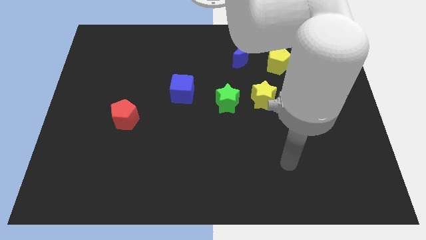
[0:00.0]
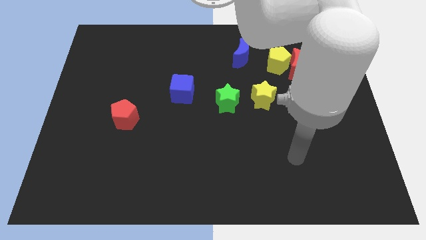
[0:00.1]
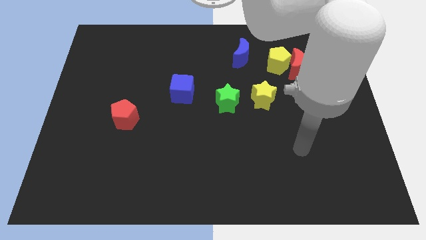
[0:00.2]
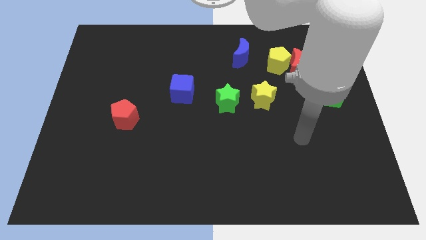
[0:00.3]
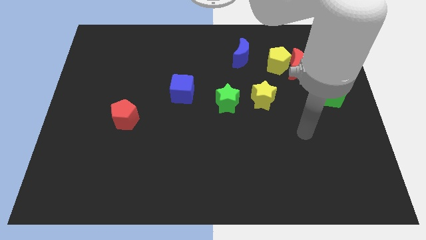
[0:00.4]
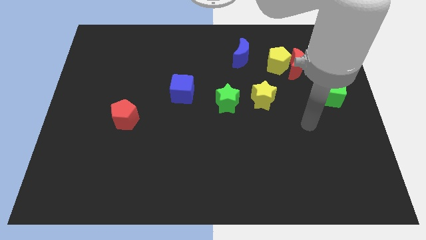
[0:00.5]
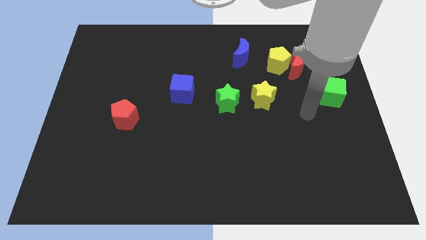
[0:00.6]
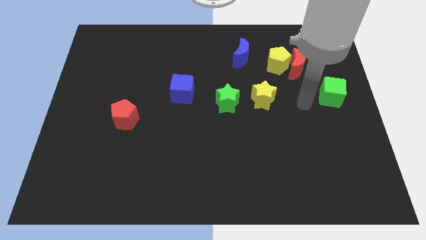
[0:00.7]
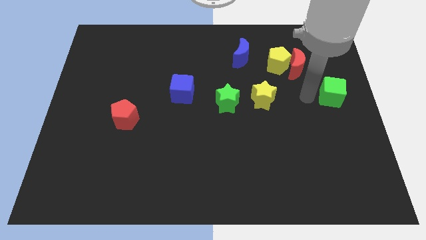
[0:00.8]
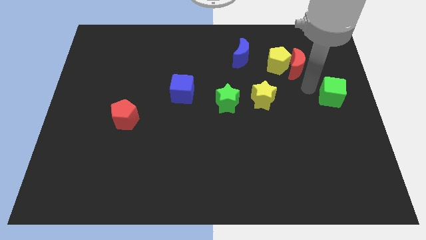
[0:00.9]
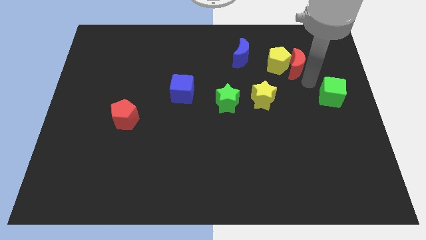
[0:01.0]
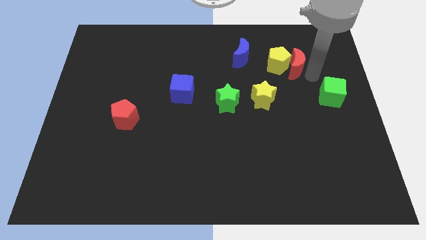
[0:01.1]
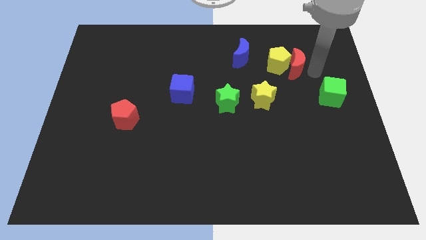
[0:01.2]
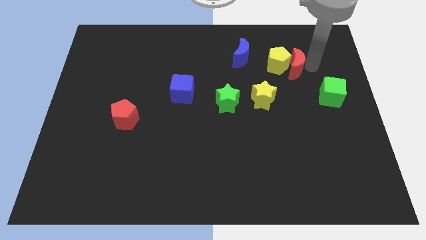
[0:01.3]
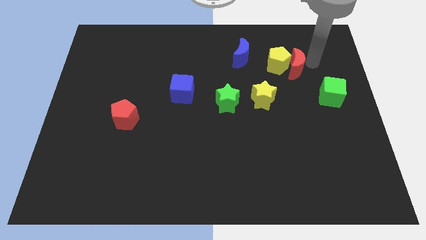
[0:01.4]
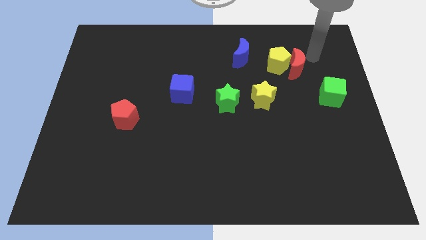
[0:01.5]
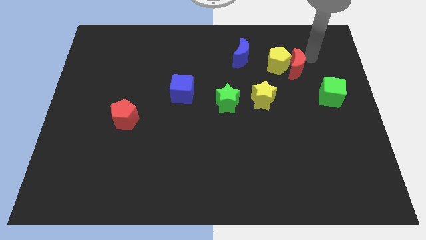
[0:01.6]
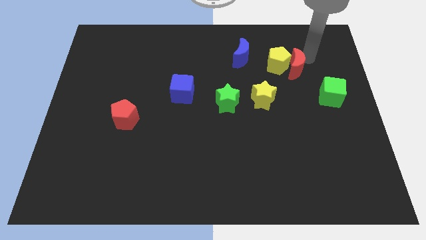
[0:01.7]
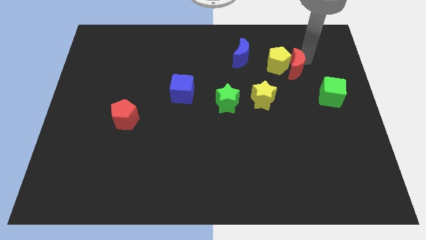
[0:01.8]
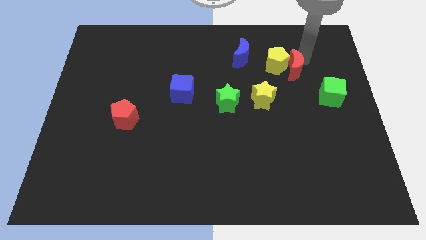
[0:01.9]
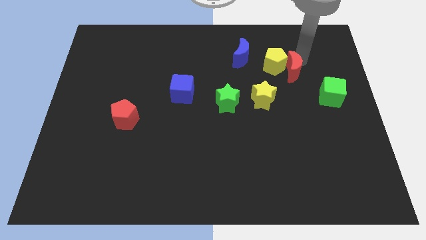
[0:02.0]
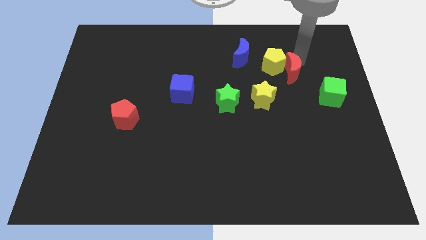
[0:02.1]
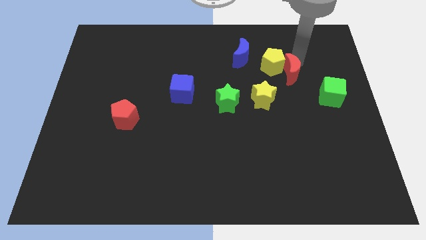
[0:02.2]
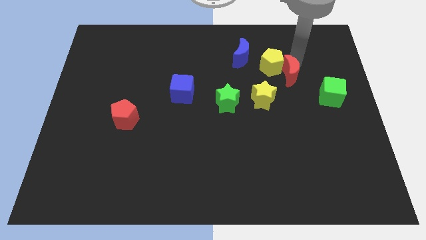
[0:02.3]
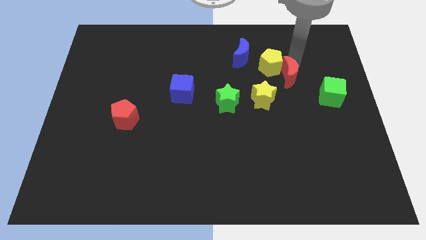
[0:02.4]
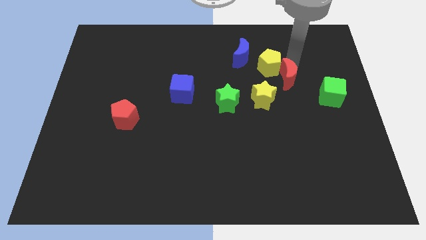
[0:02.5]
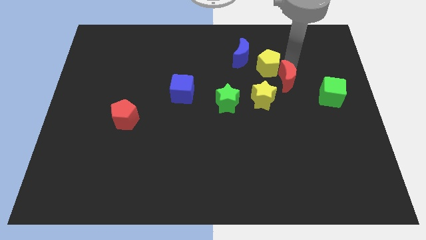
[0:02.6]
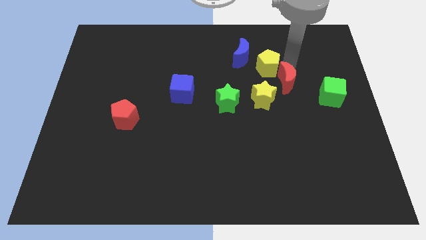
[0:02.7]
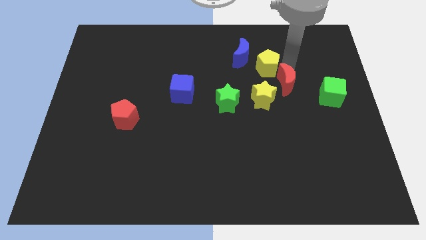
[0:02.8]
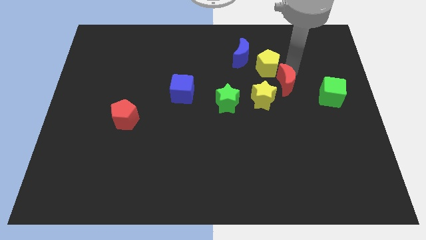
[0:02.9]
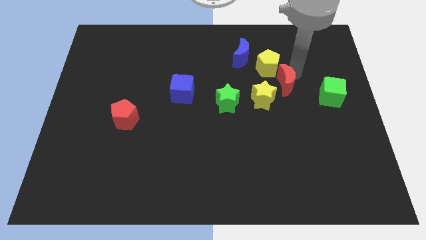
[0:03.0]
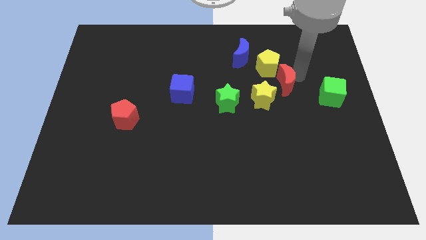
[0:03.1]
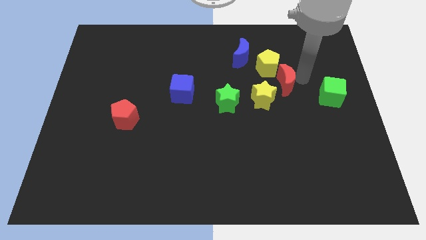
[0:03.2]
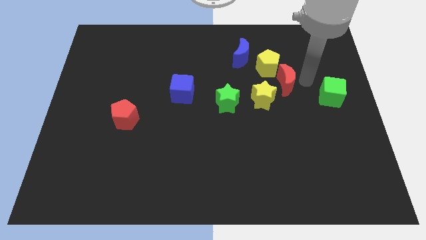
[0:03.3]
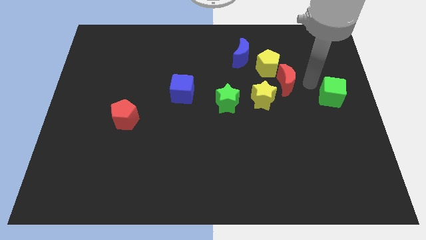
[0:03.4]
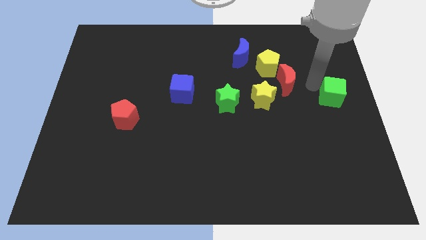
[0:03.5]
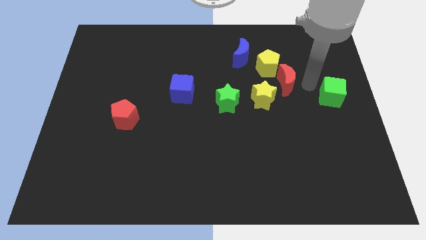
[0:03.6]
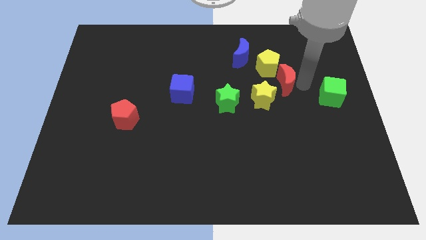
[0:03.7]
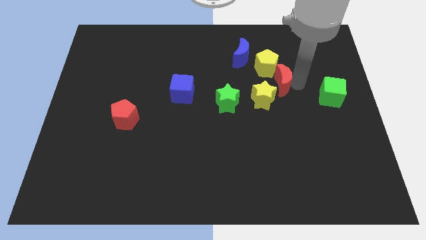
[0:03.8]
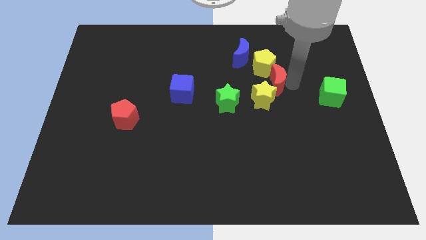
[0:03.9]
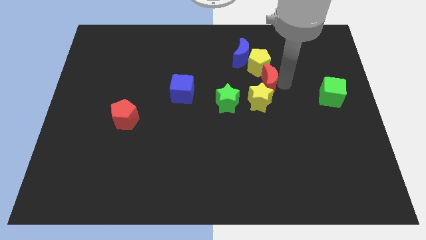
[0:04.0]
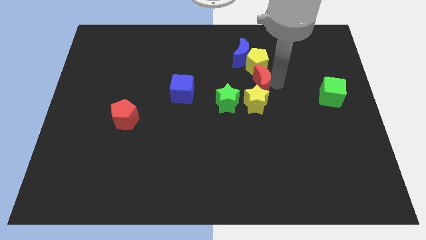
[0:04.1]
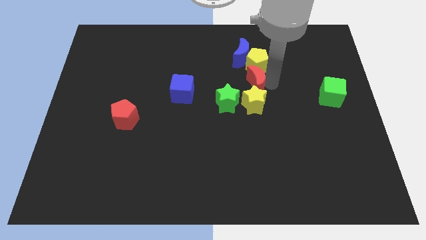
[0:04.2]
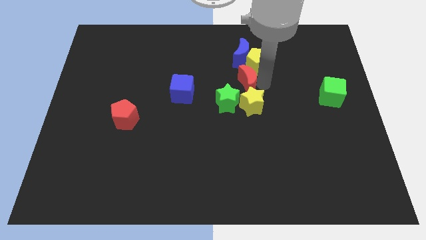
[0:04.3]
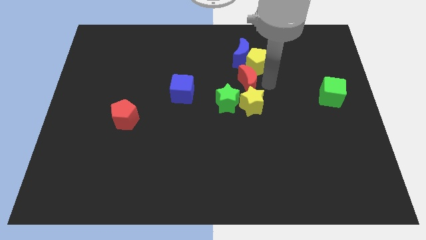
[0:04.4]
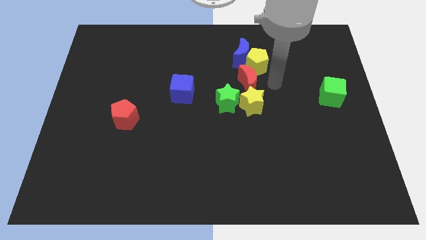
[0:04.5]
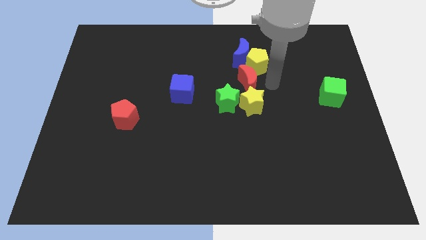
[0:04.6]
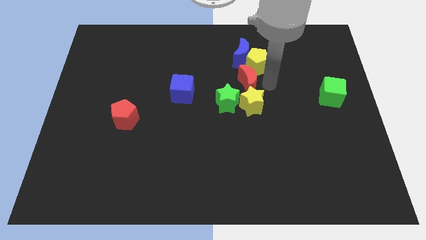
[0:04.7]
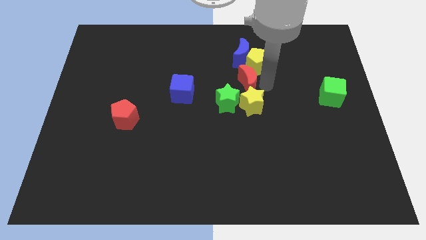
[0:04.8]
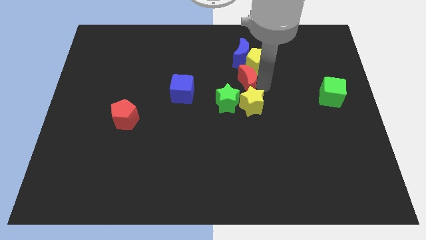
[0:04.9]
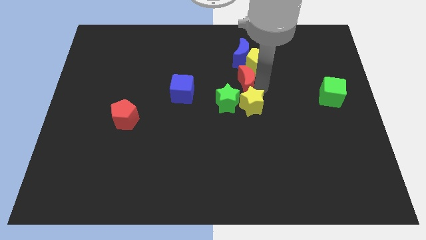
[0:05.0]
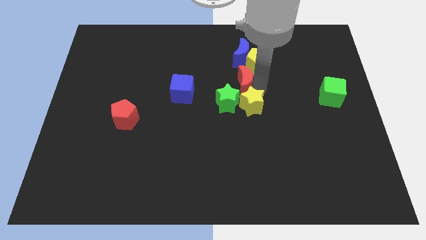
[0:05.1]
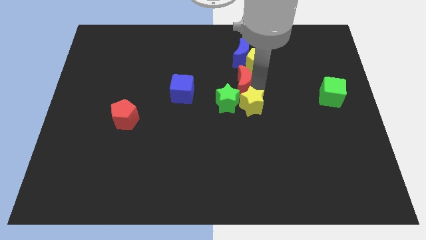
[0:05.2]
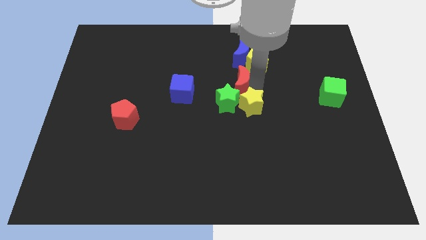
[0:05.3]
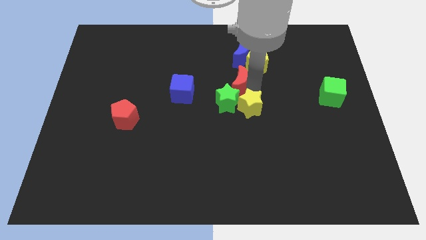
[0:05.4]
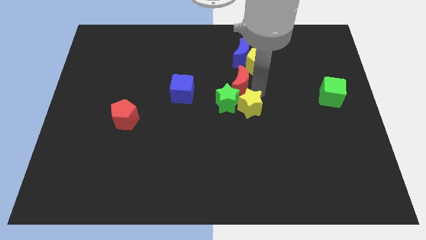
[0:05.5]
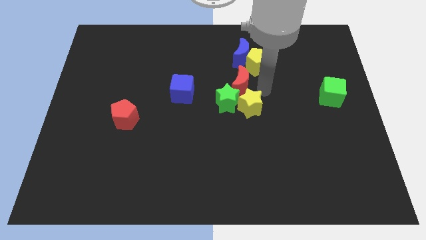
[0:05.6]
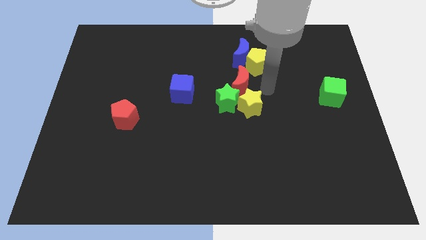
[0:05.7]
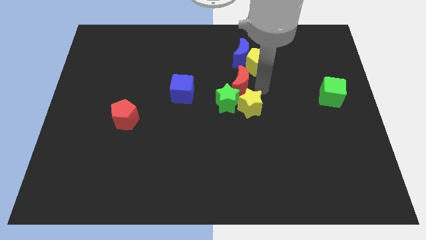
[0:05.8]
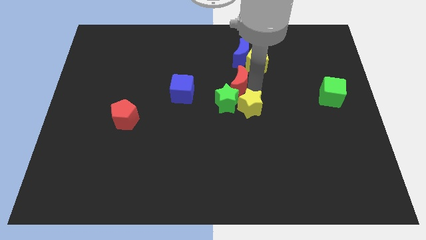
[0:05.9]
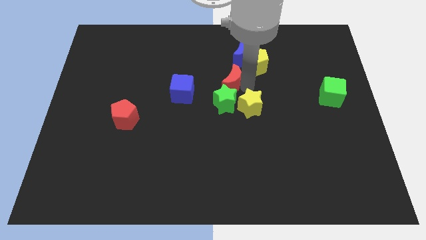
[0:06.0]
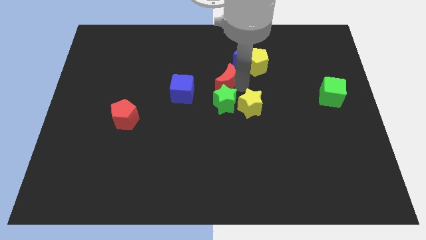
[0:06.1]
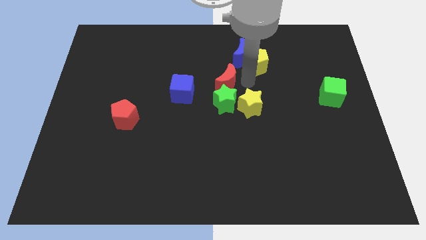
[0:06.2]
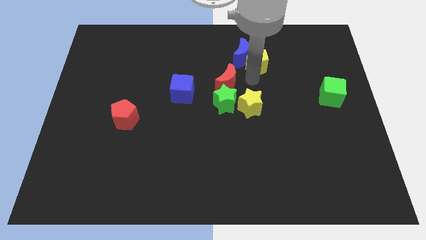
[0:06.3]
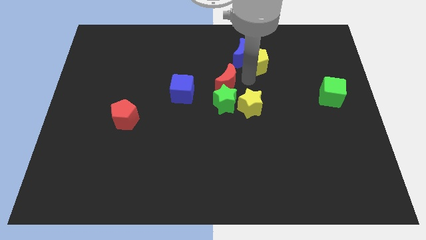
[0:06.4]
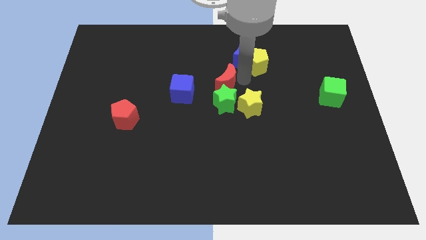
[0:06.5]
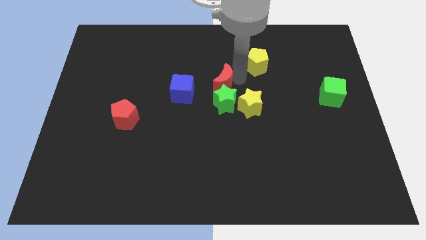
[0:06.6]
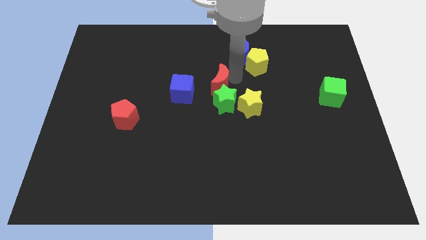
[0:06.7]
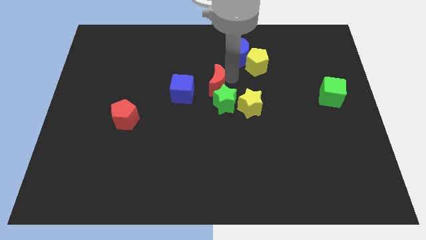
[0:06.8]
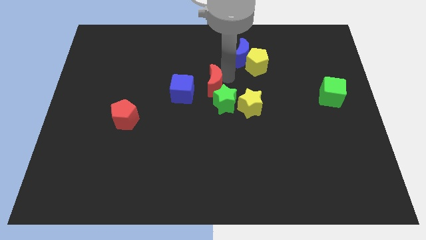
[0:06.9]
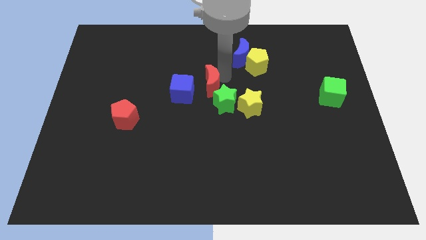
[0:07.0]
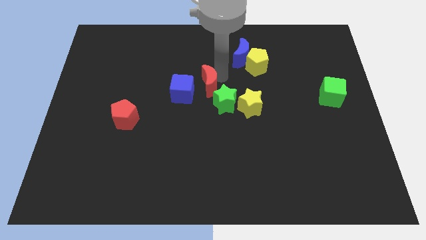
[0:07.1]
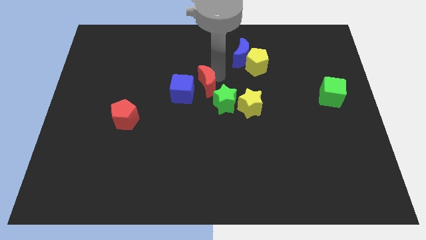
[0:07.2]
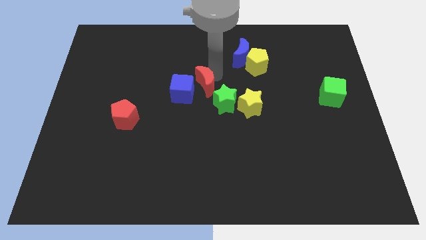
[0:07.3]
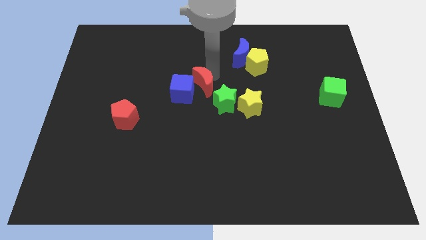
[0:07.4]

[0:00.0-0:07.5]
push the red moon next to the blue cube
